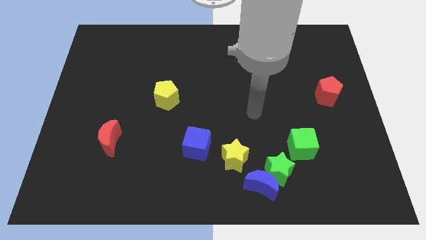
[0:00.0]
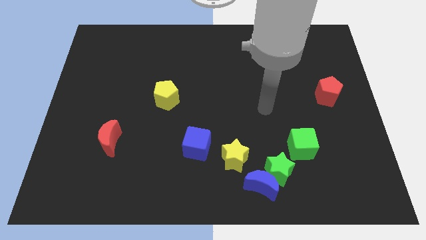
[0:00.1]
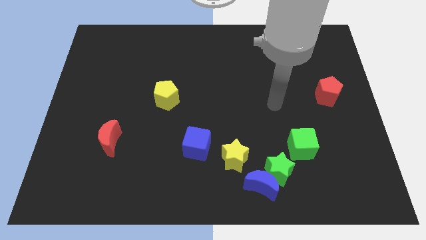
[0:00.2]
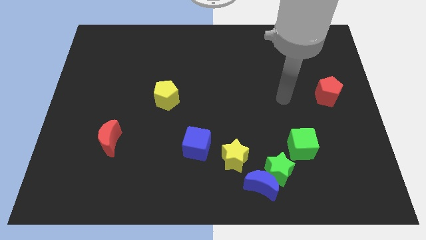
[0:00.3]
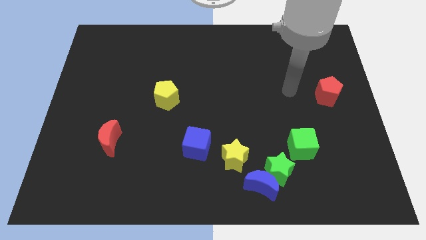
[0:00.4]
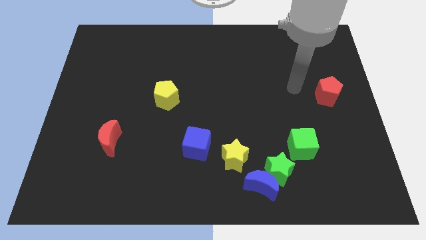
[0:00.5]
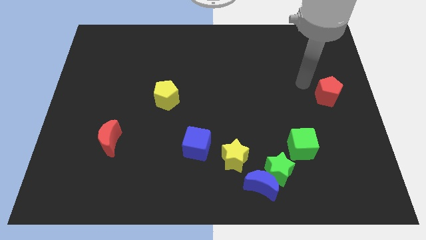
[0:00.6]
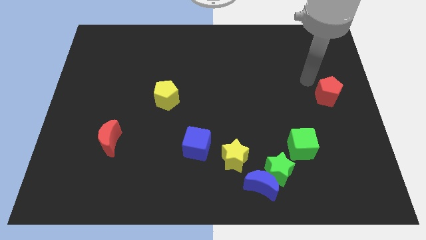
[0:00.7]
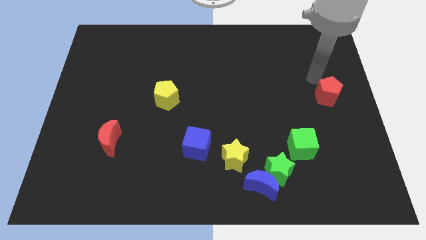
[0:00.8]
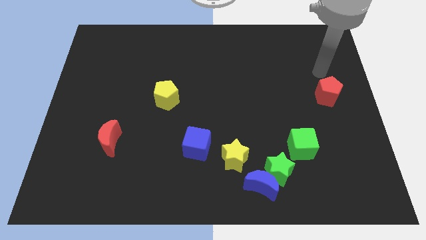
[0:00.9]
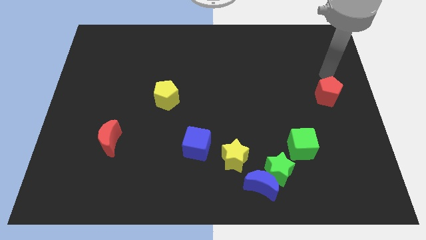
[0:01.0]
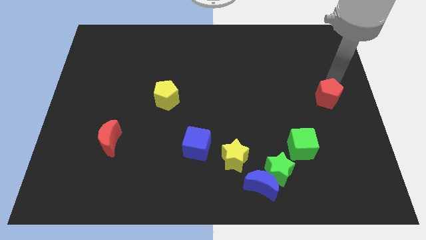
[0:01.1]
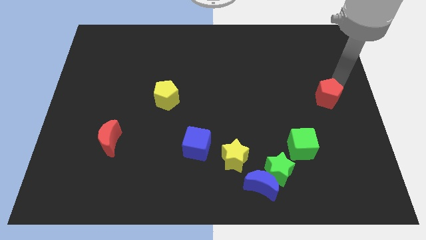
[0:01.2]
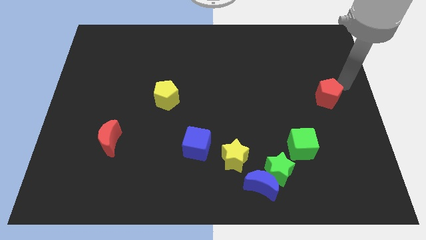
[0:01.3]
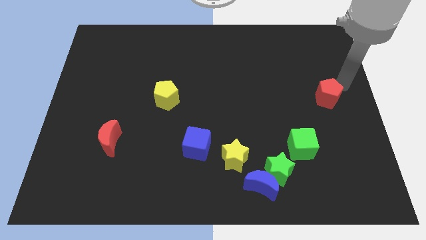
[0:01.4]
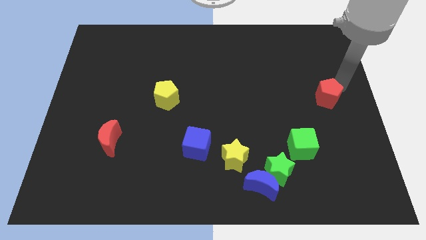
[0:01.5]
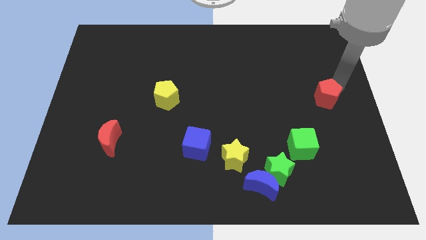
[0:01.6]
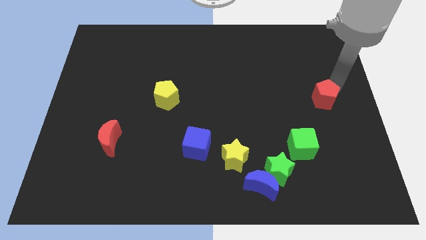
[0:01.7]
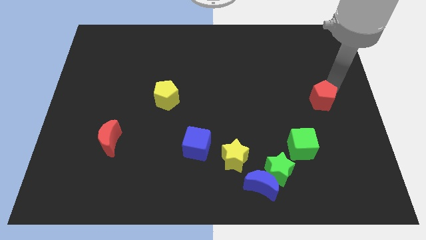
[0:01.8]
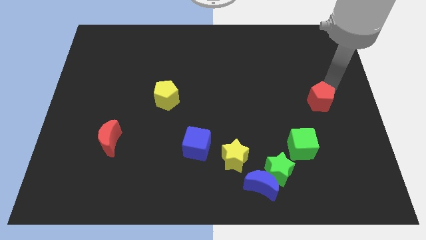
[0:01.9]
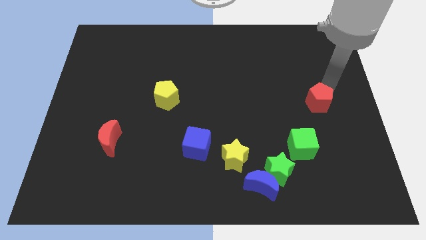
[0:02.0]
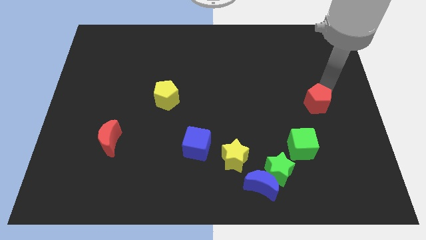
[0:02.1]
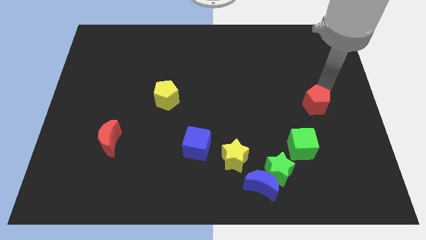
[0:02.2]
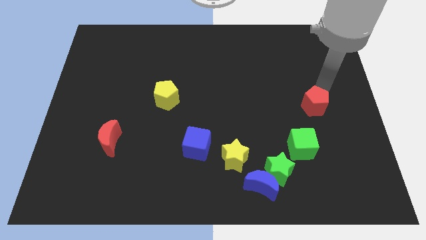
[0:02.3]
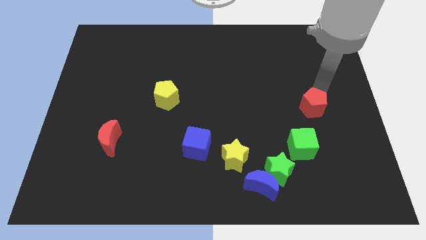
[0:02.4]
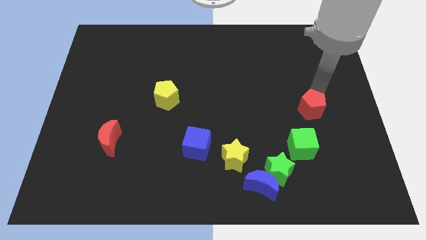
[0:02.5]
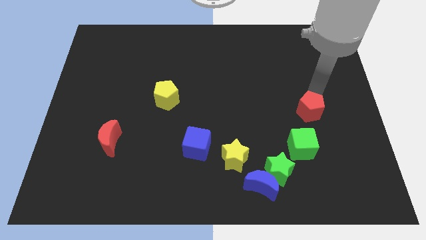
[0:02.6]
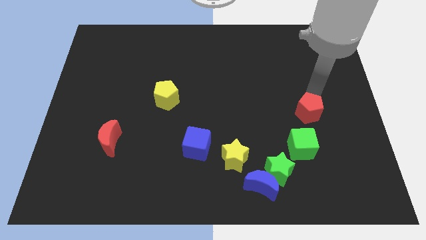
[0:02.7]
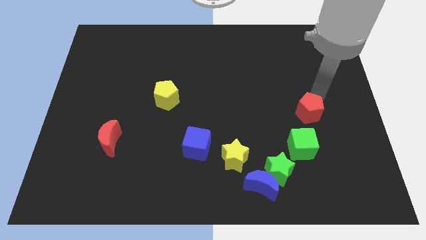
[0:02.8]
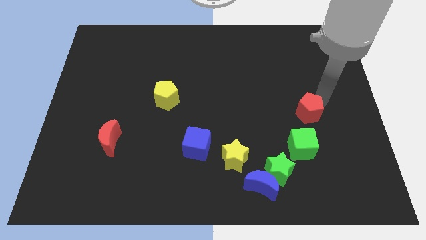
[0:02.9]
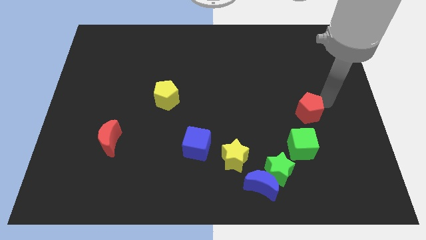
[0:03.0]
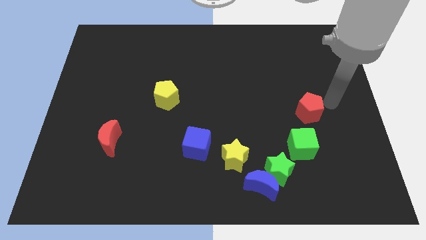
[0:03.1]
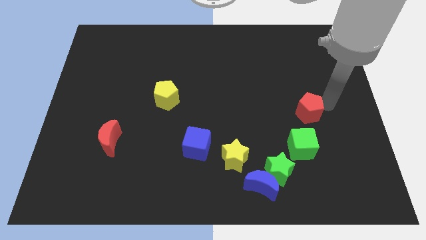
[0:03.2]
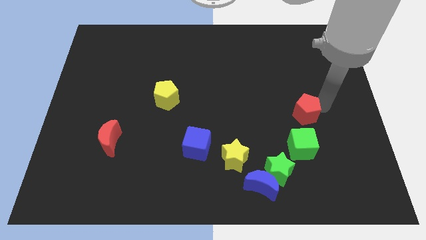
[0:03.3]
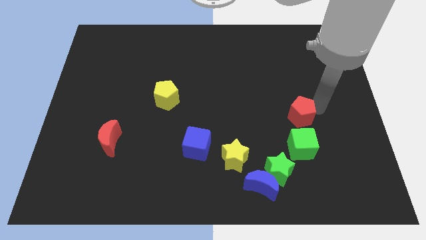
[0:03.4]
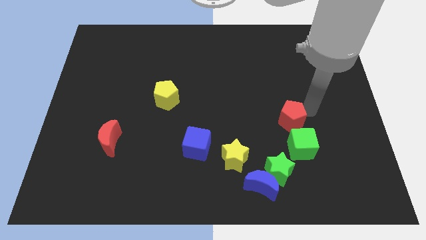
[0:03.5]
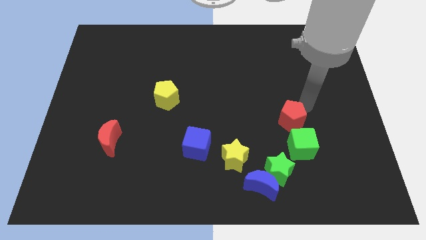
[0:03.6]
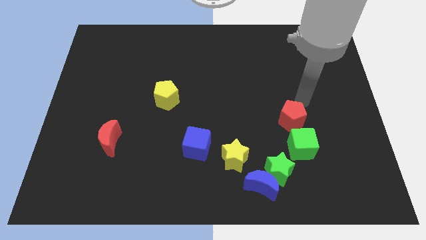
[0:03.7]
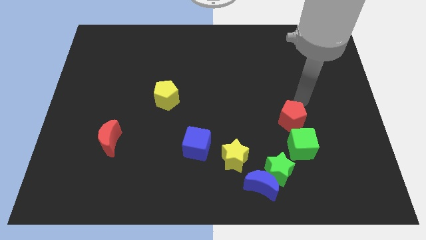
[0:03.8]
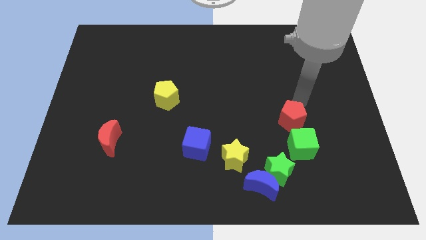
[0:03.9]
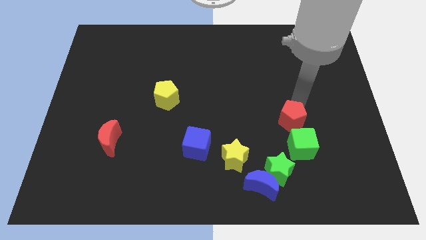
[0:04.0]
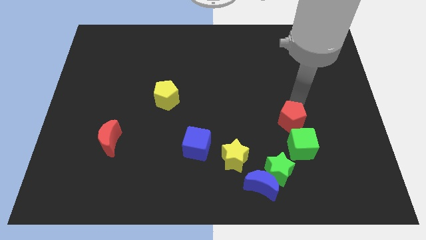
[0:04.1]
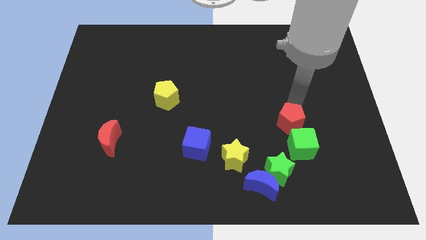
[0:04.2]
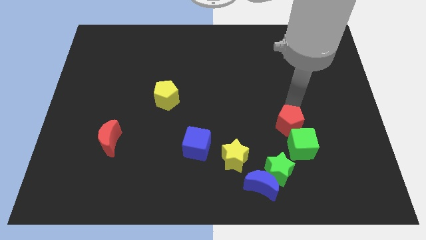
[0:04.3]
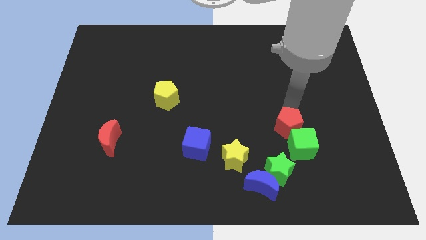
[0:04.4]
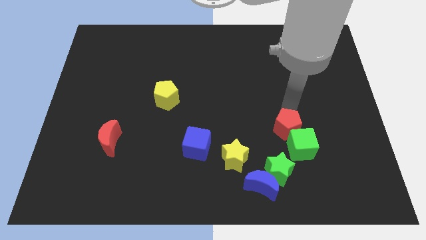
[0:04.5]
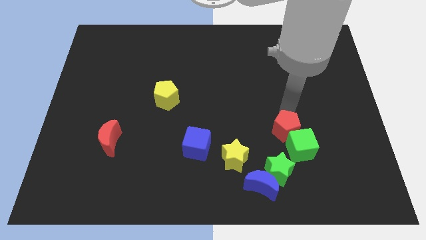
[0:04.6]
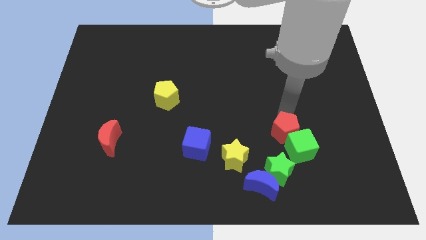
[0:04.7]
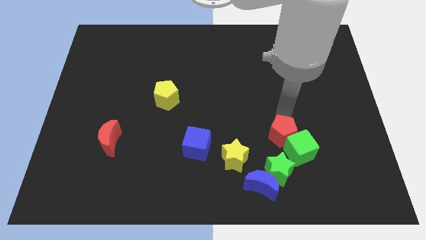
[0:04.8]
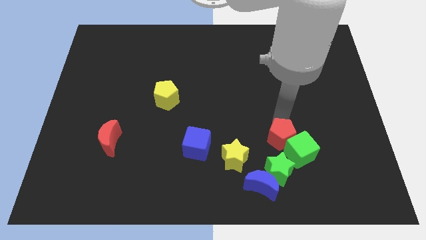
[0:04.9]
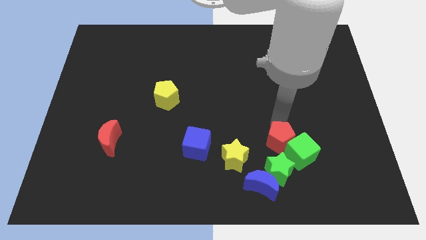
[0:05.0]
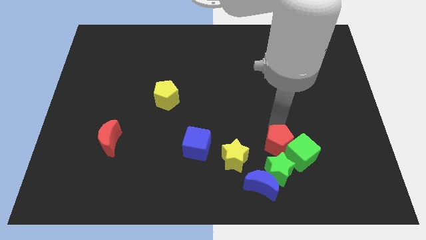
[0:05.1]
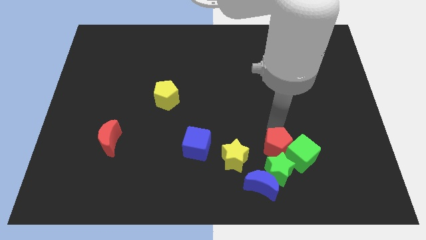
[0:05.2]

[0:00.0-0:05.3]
put the red pentagon towards the green star

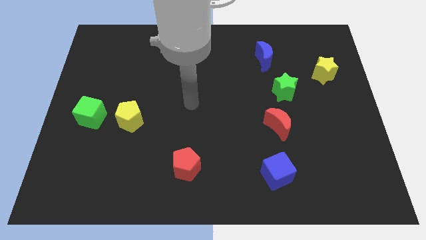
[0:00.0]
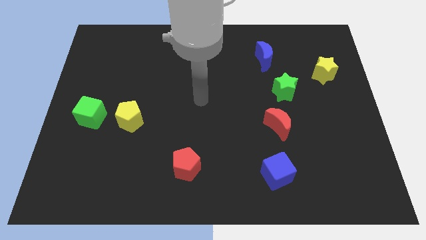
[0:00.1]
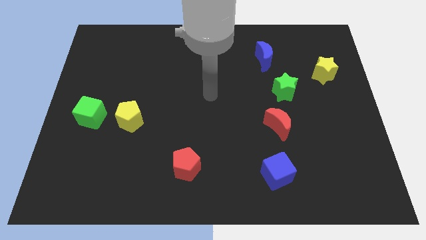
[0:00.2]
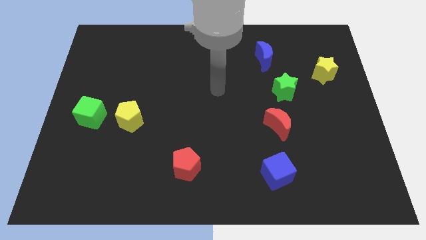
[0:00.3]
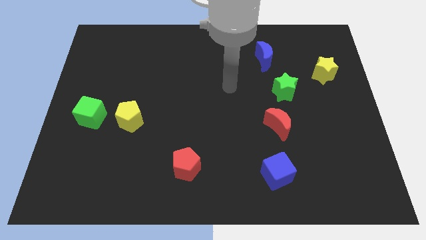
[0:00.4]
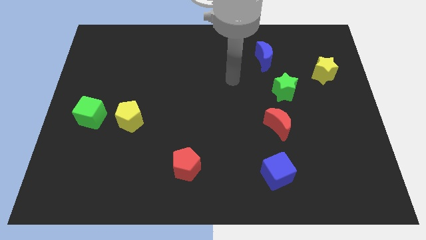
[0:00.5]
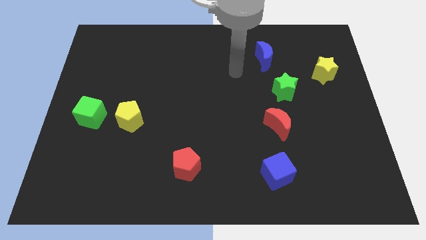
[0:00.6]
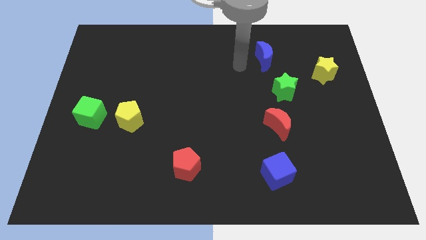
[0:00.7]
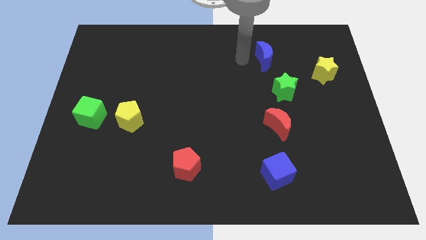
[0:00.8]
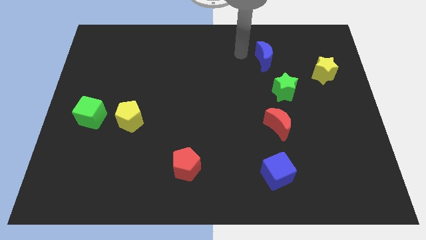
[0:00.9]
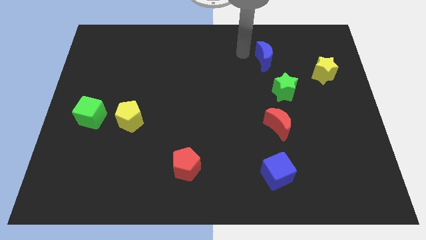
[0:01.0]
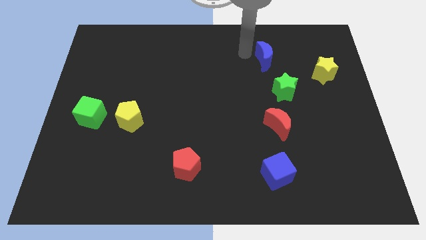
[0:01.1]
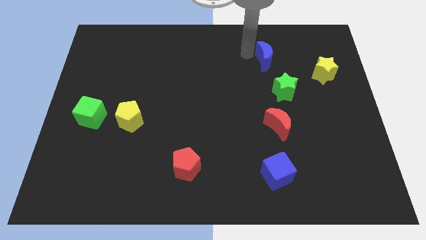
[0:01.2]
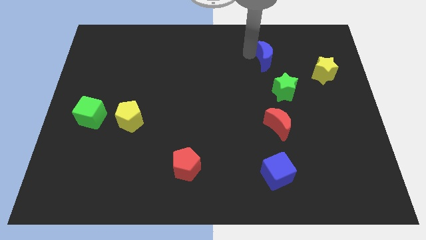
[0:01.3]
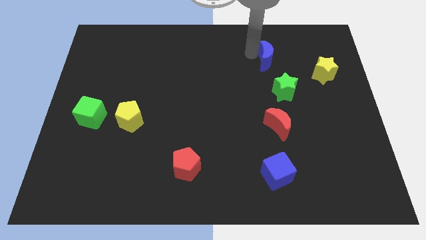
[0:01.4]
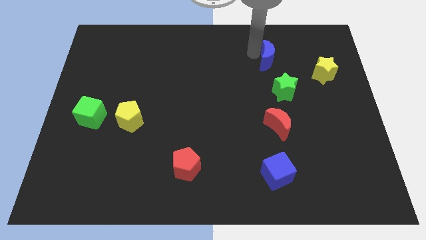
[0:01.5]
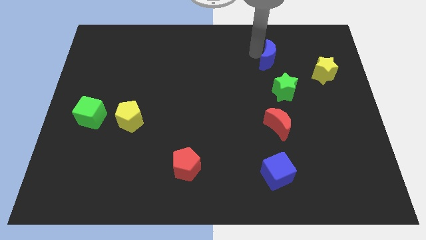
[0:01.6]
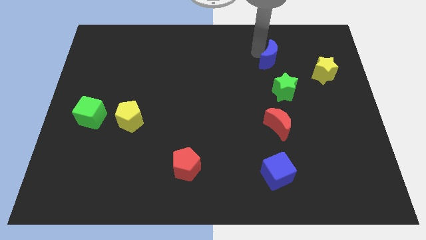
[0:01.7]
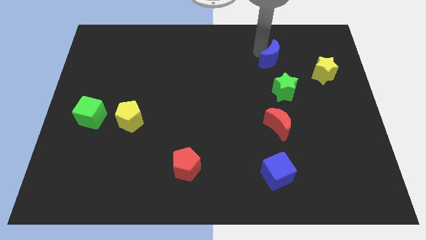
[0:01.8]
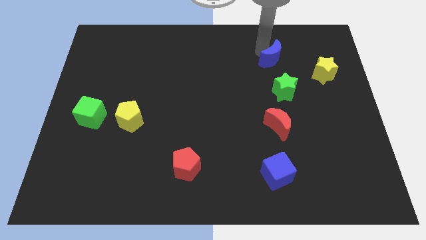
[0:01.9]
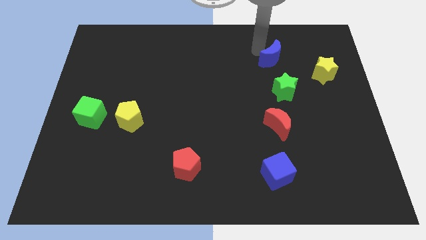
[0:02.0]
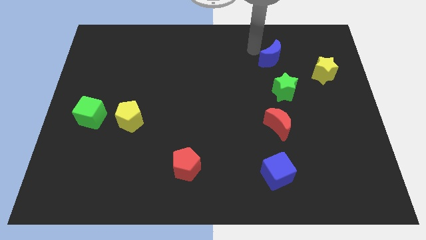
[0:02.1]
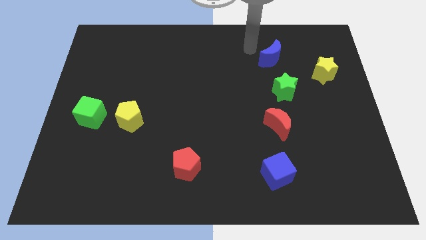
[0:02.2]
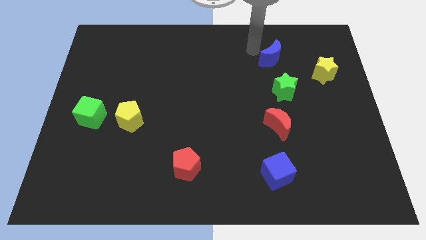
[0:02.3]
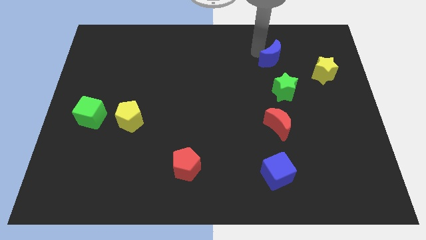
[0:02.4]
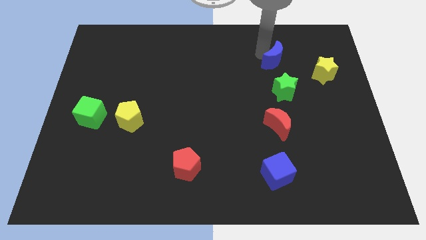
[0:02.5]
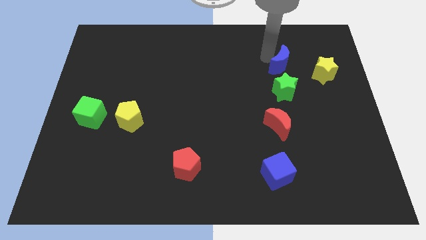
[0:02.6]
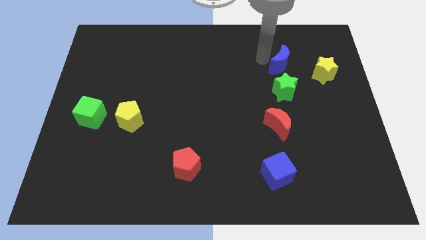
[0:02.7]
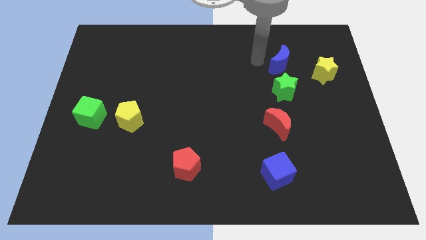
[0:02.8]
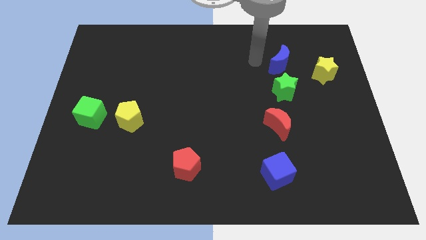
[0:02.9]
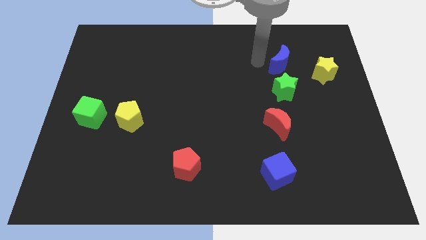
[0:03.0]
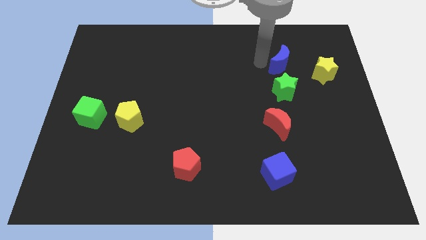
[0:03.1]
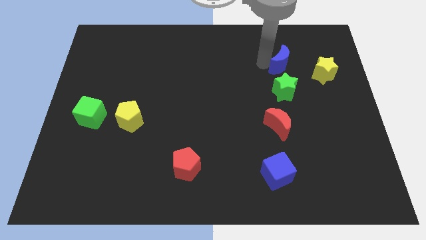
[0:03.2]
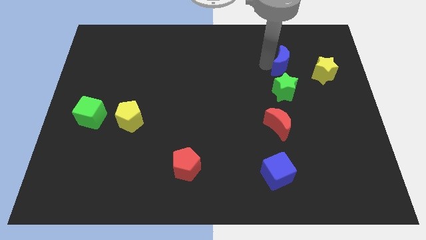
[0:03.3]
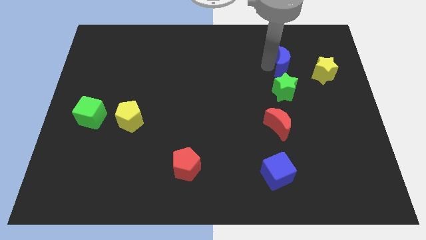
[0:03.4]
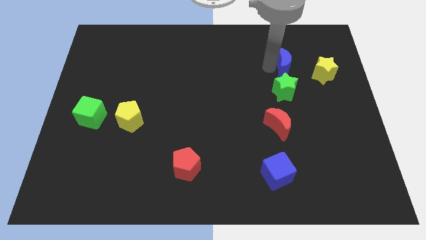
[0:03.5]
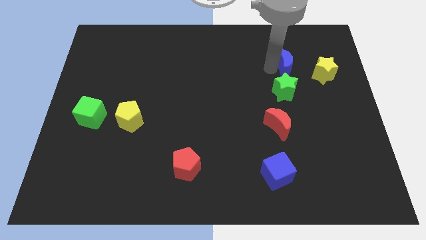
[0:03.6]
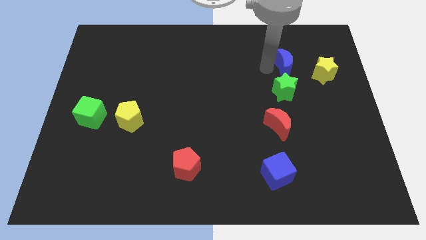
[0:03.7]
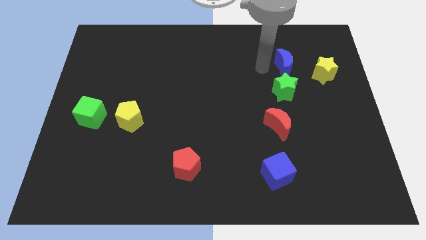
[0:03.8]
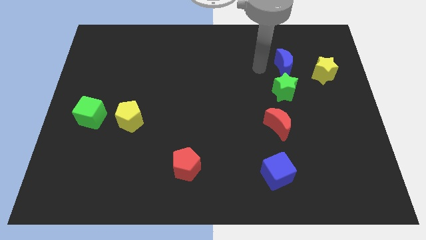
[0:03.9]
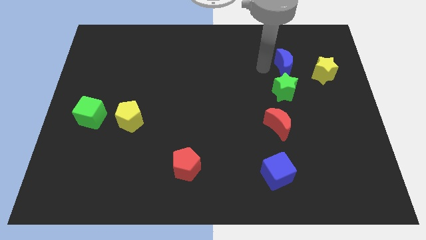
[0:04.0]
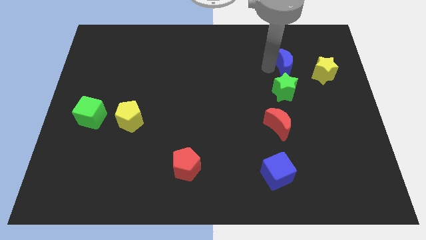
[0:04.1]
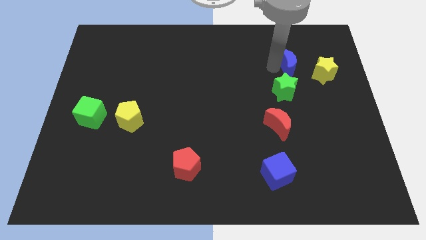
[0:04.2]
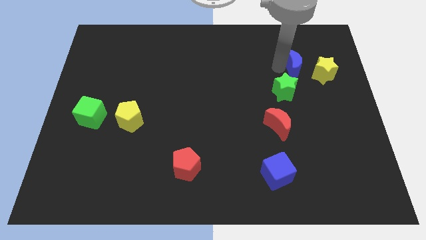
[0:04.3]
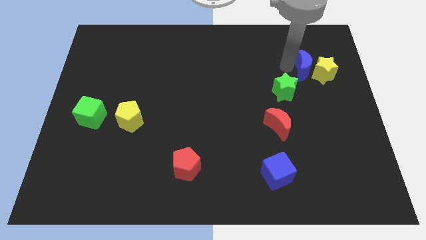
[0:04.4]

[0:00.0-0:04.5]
put the blue moon next to the yellow star
